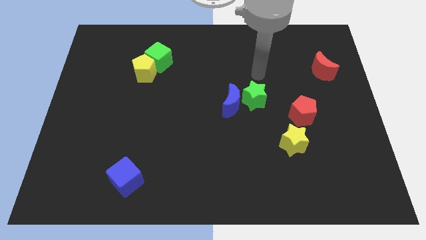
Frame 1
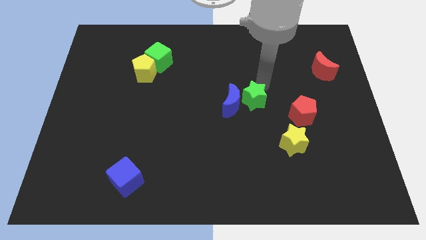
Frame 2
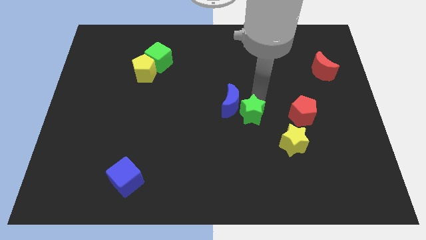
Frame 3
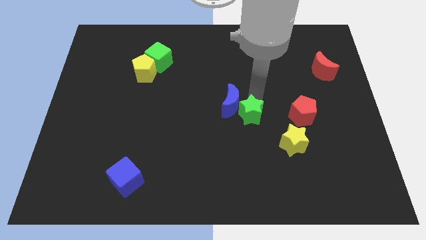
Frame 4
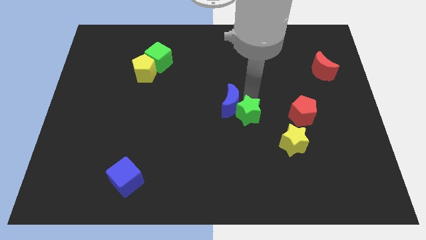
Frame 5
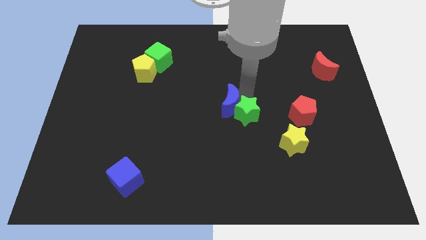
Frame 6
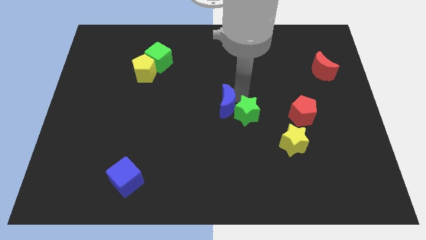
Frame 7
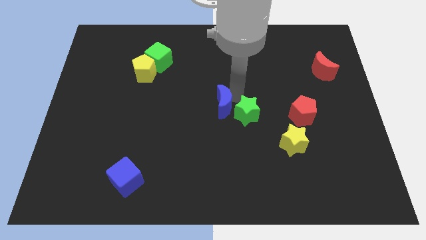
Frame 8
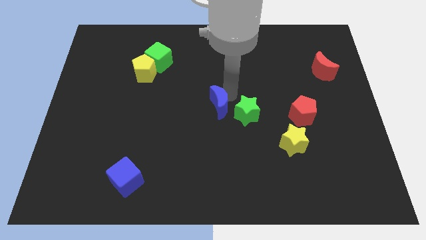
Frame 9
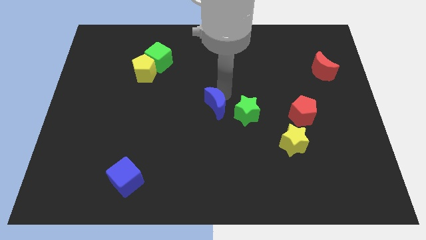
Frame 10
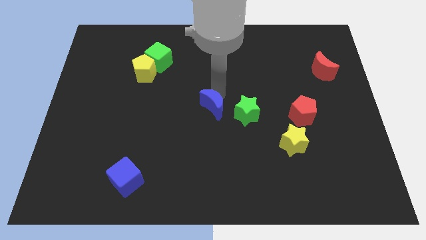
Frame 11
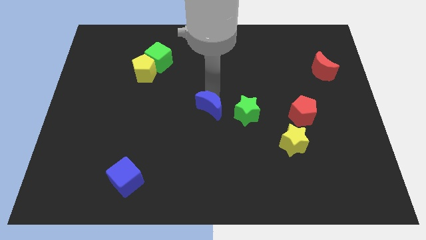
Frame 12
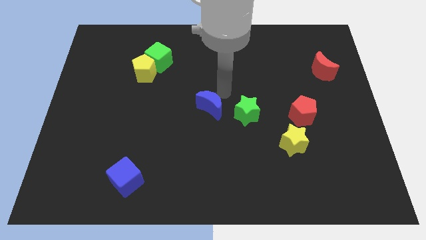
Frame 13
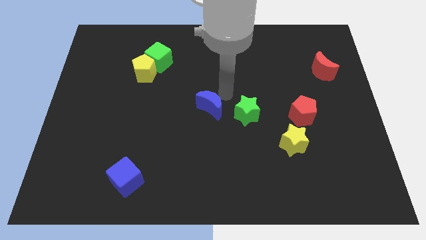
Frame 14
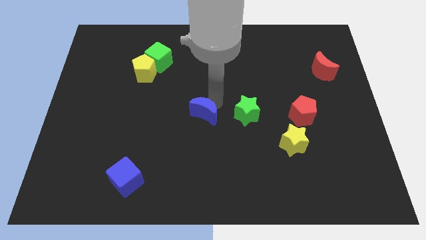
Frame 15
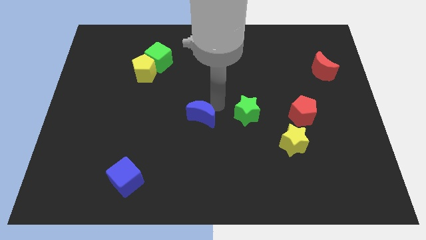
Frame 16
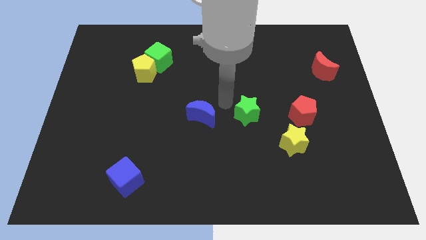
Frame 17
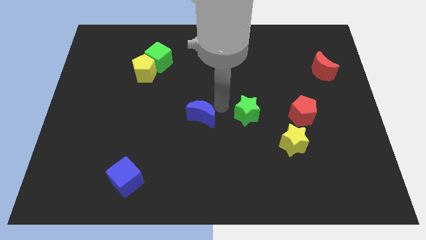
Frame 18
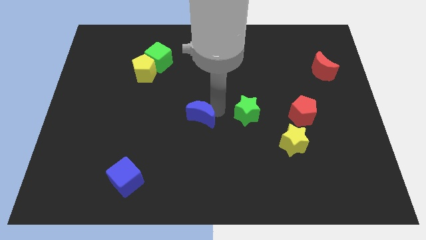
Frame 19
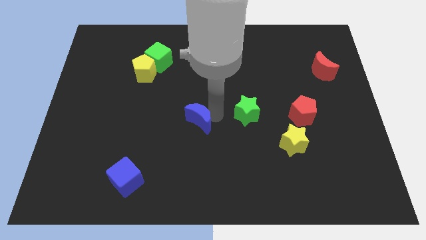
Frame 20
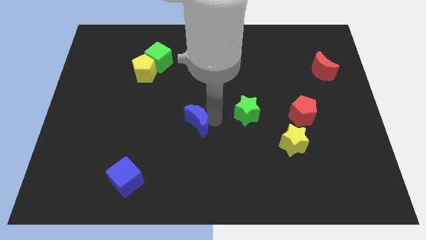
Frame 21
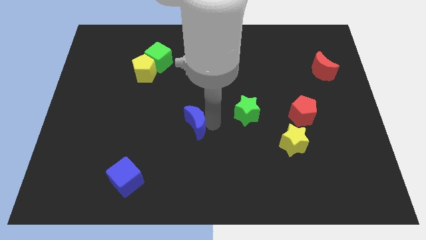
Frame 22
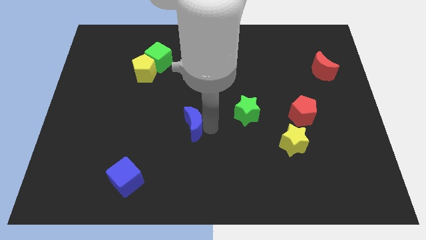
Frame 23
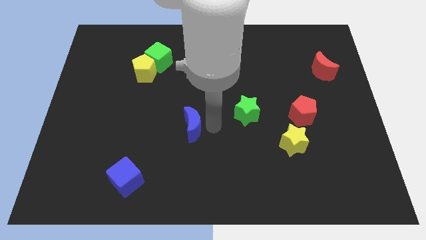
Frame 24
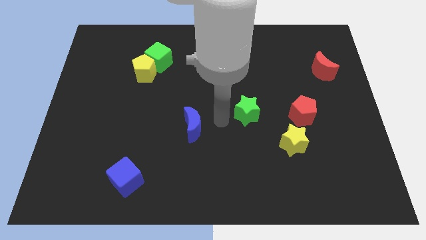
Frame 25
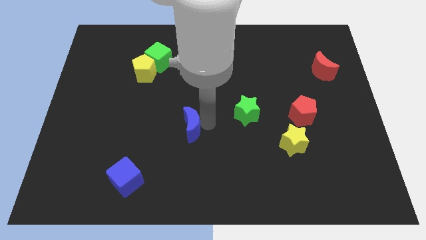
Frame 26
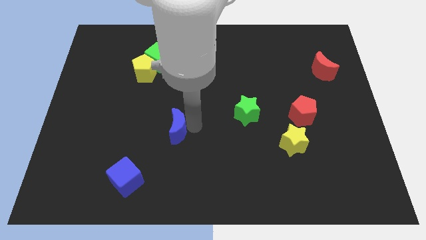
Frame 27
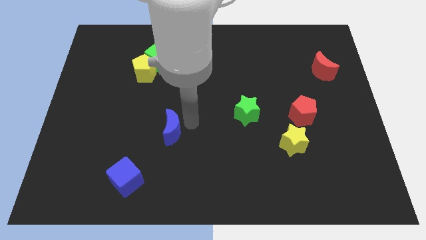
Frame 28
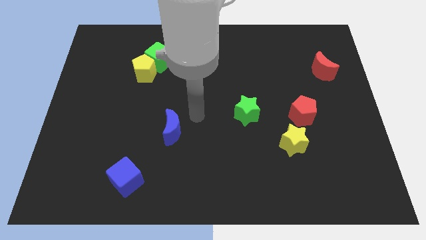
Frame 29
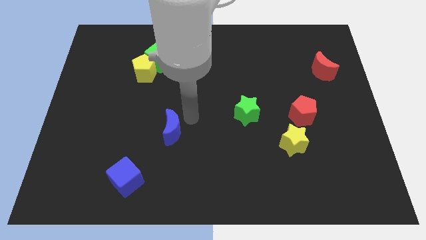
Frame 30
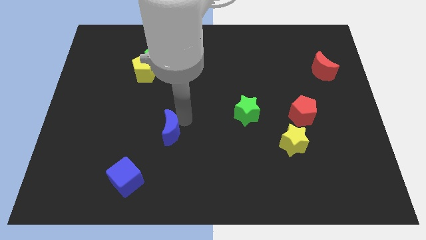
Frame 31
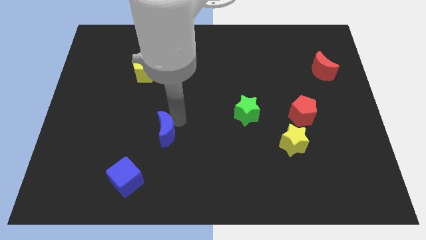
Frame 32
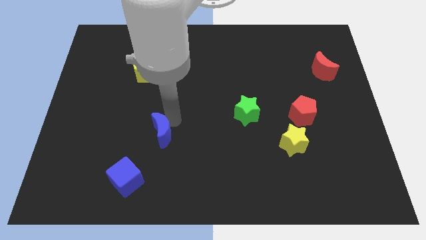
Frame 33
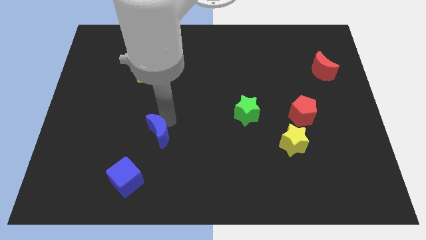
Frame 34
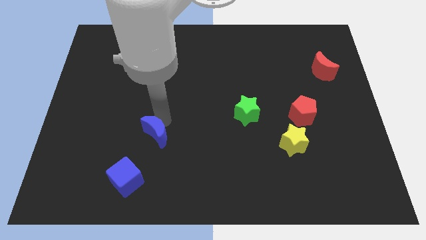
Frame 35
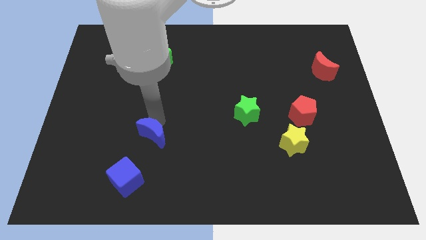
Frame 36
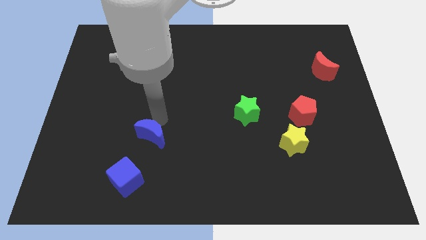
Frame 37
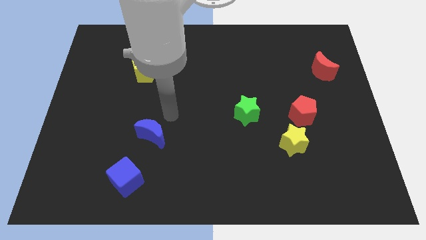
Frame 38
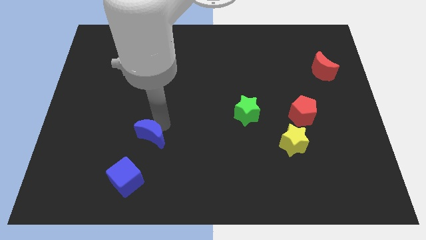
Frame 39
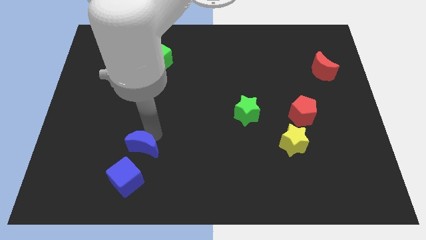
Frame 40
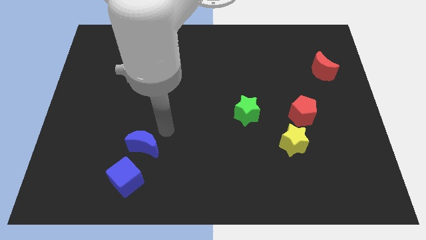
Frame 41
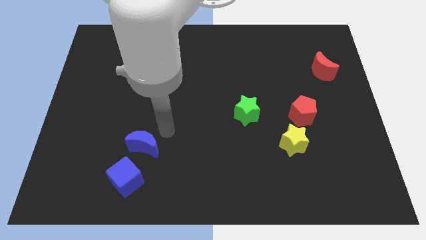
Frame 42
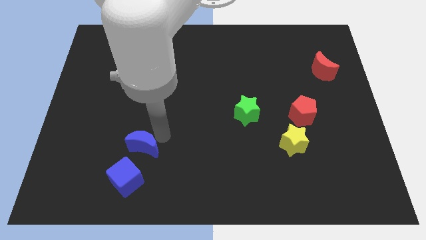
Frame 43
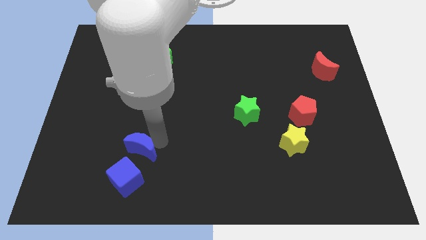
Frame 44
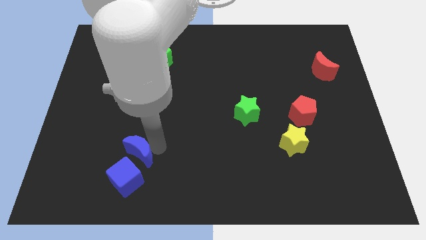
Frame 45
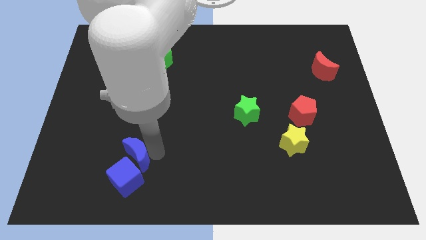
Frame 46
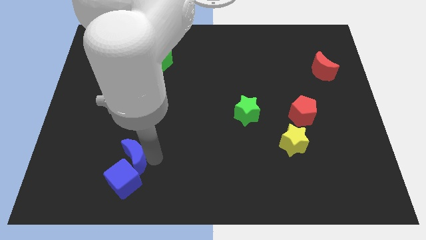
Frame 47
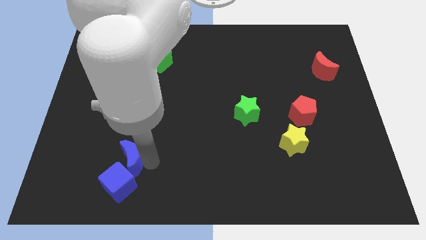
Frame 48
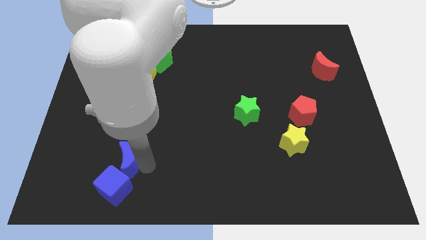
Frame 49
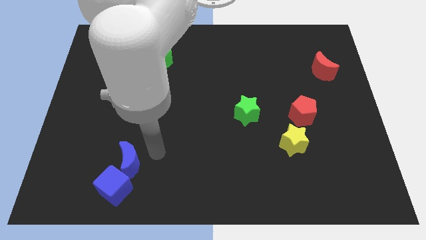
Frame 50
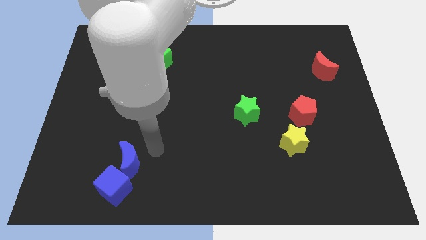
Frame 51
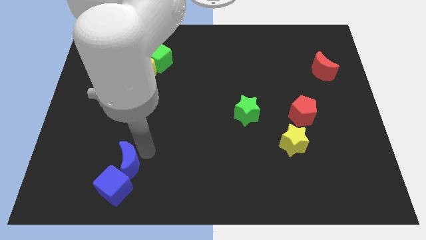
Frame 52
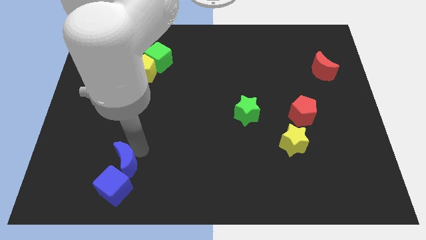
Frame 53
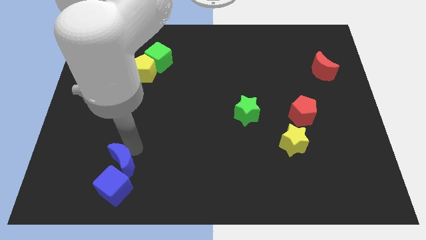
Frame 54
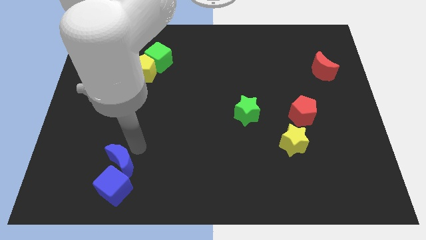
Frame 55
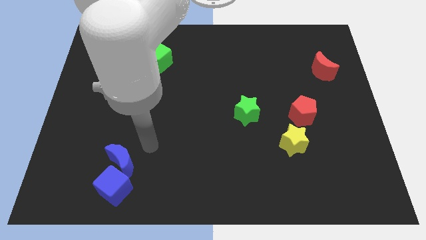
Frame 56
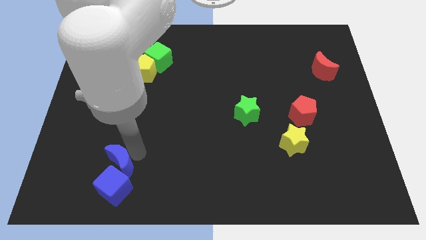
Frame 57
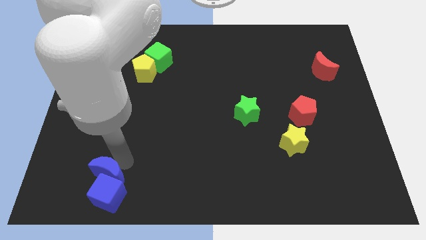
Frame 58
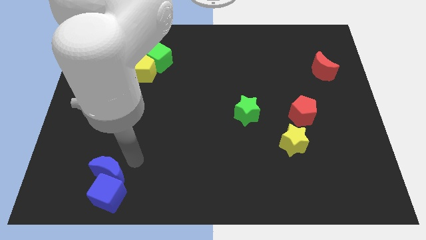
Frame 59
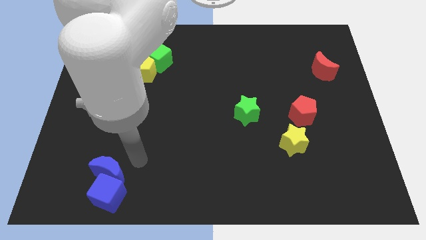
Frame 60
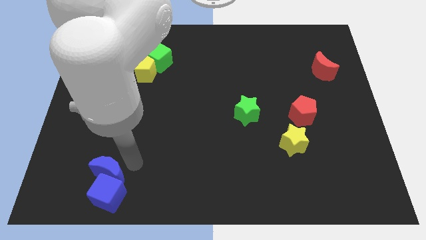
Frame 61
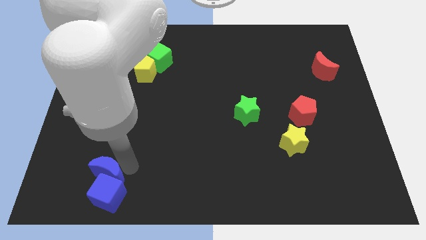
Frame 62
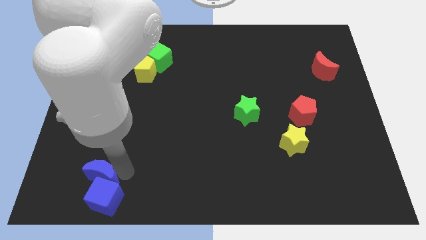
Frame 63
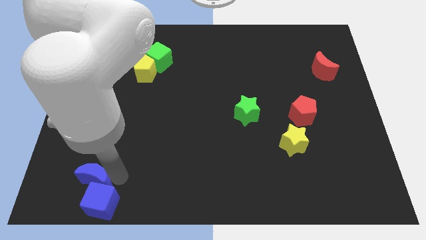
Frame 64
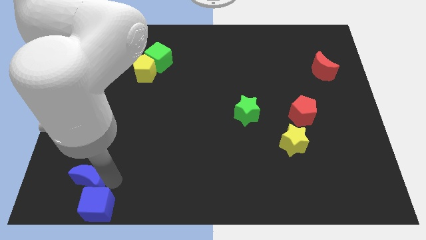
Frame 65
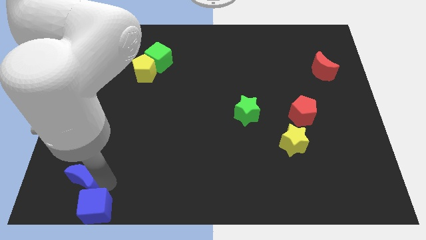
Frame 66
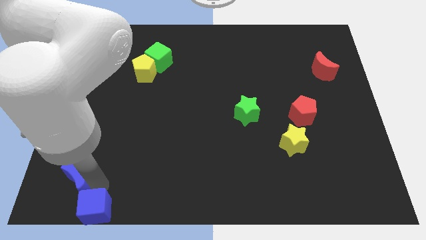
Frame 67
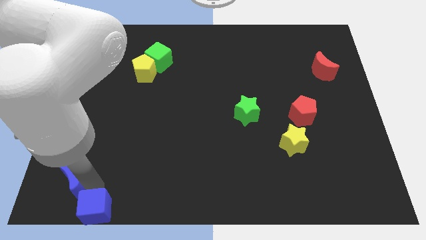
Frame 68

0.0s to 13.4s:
push the blue moon to the bottom left
